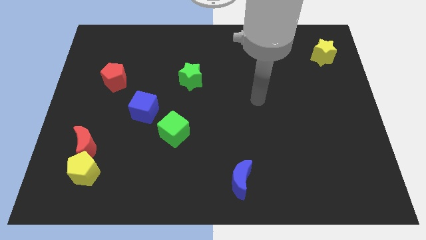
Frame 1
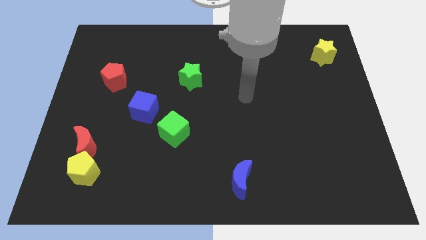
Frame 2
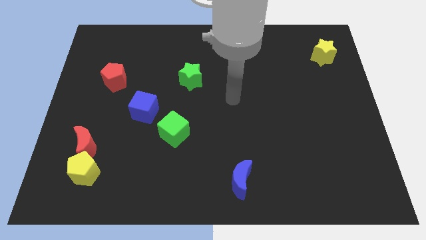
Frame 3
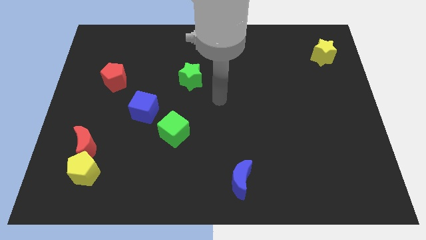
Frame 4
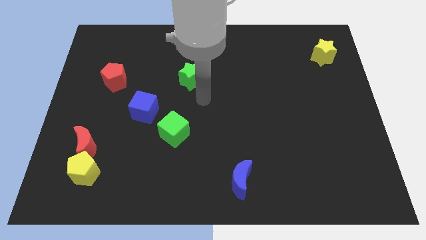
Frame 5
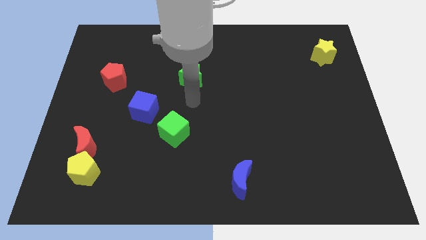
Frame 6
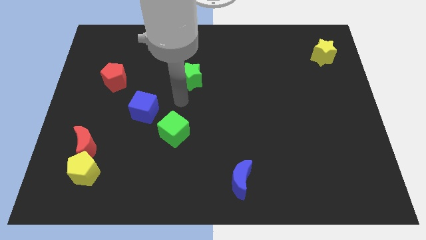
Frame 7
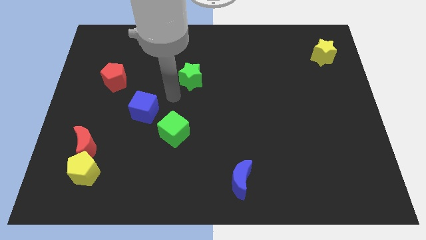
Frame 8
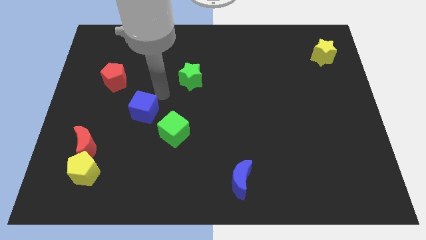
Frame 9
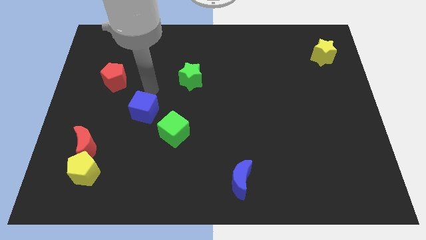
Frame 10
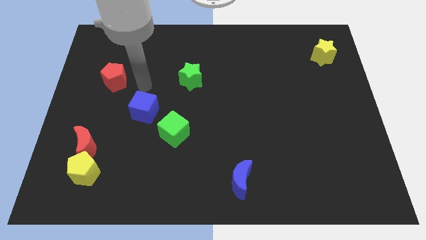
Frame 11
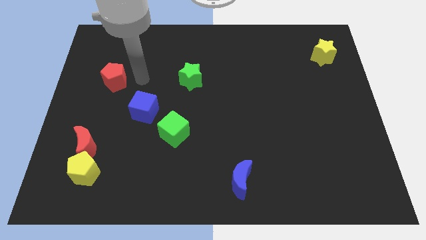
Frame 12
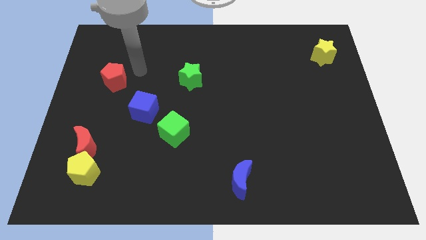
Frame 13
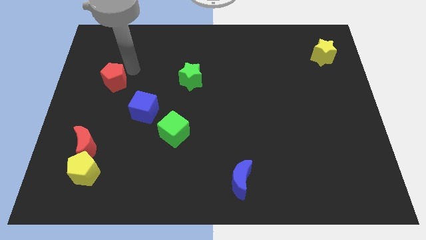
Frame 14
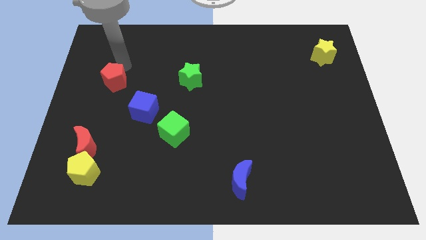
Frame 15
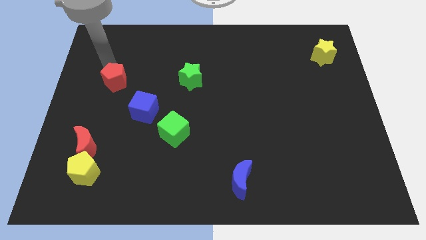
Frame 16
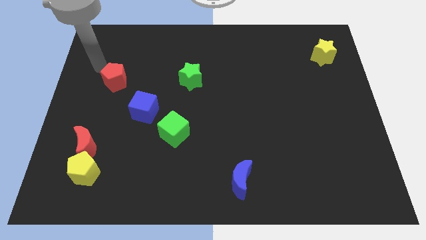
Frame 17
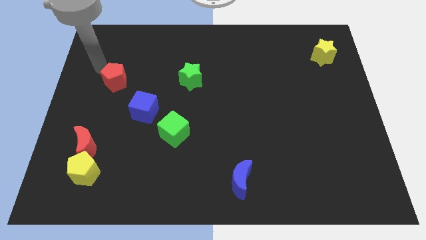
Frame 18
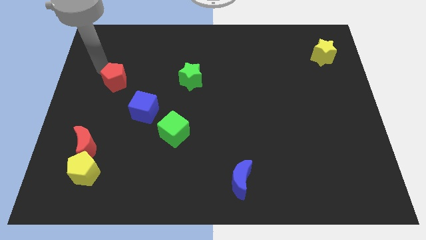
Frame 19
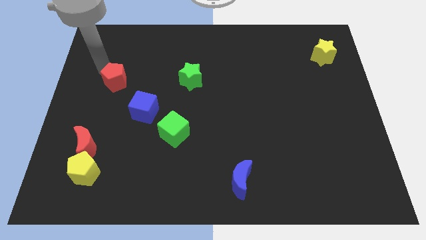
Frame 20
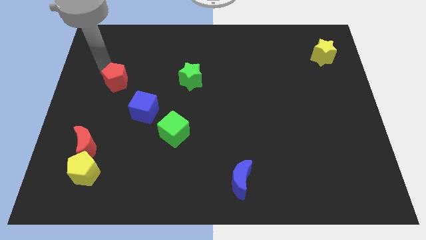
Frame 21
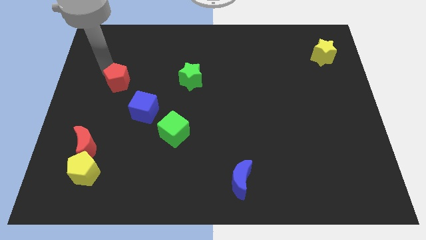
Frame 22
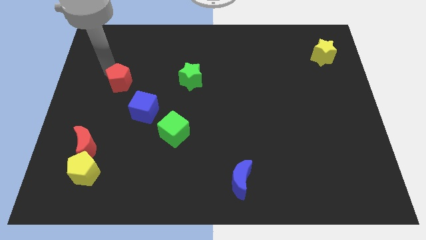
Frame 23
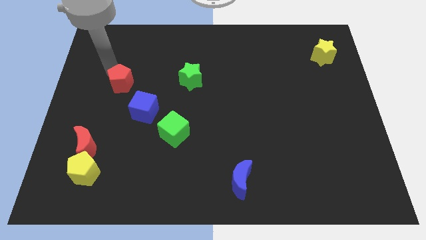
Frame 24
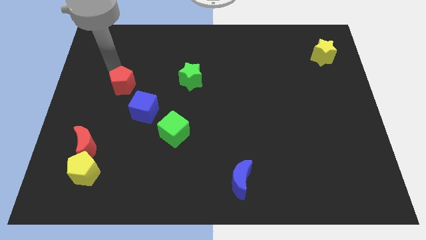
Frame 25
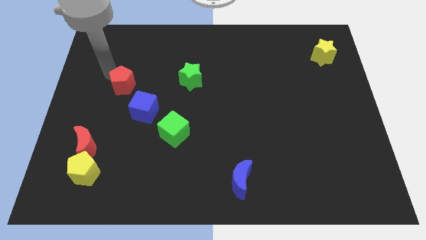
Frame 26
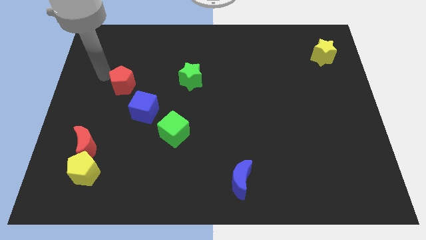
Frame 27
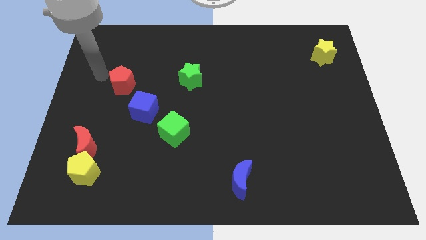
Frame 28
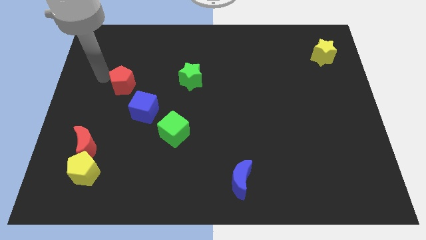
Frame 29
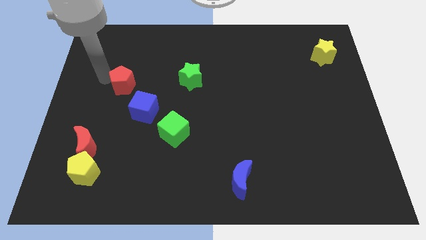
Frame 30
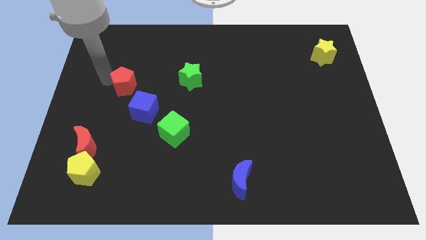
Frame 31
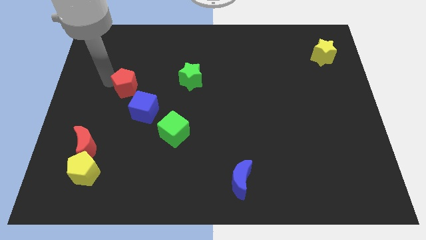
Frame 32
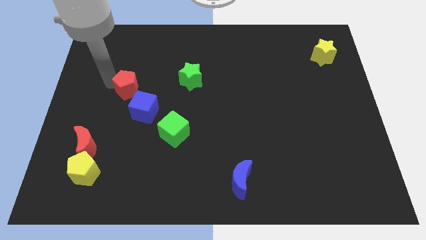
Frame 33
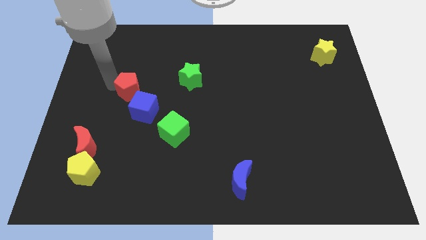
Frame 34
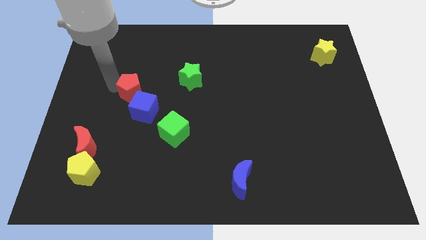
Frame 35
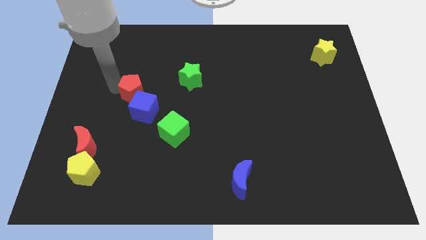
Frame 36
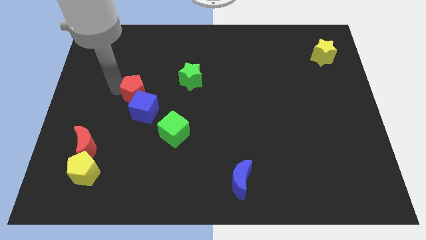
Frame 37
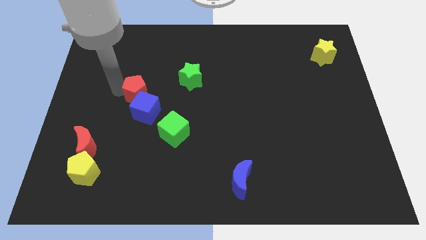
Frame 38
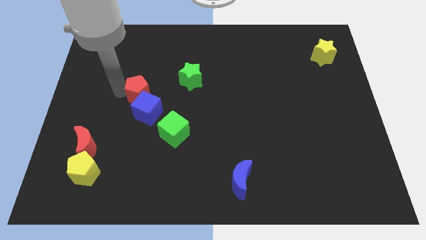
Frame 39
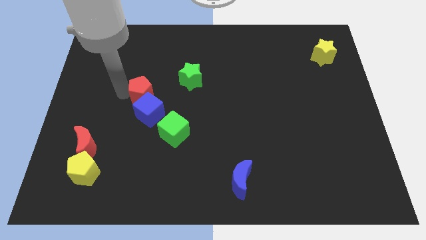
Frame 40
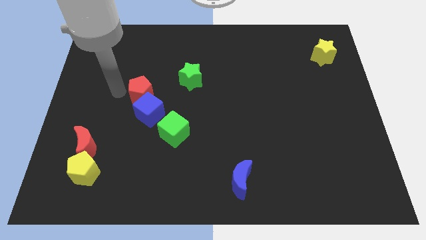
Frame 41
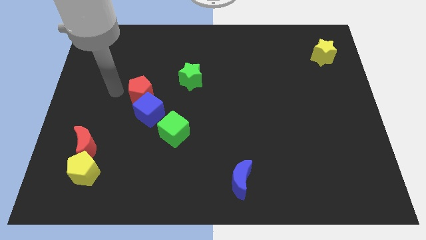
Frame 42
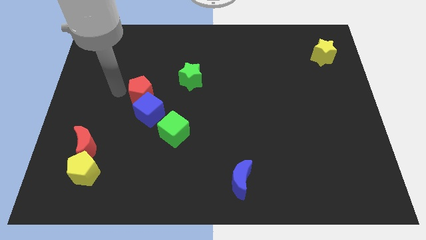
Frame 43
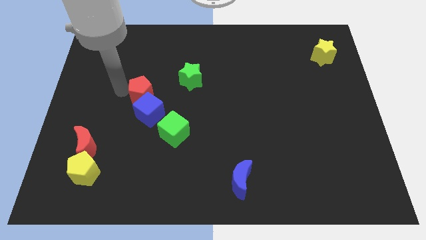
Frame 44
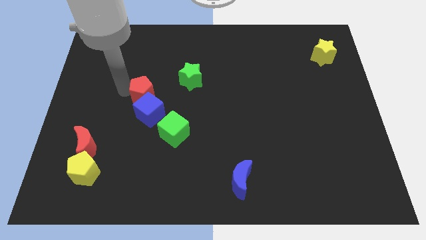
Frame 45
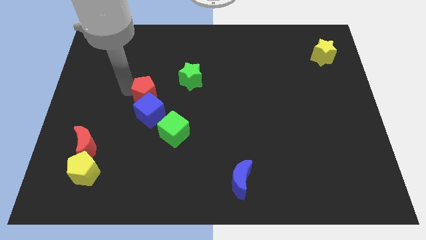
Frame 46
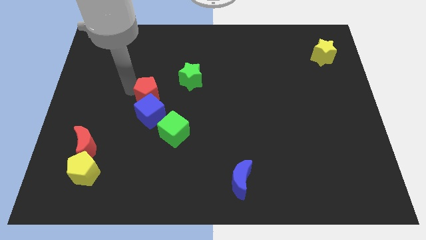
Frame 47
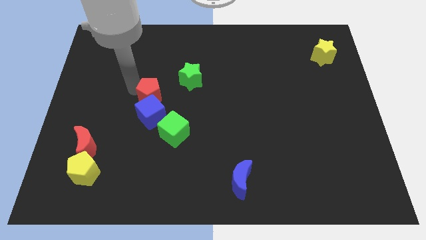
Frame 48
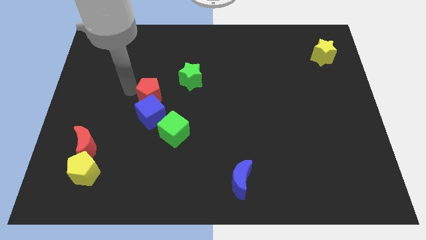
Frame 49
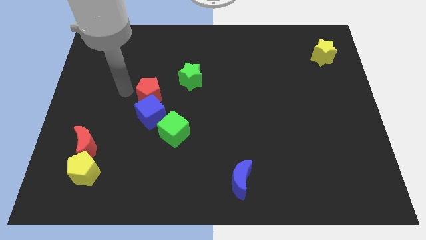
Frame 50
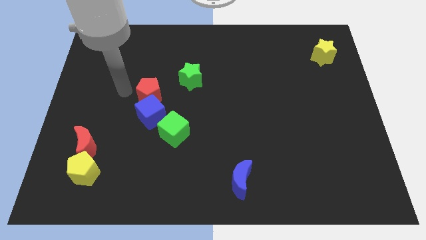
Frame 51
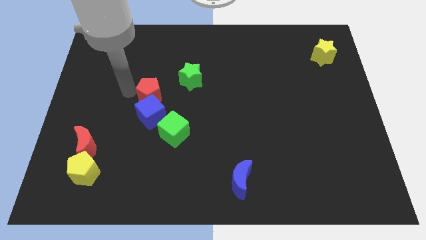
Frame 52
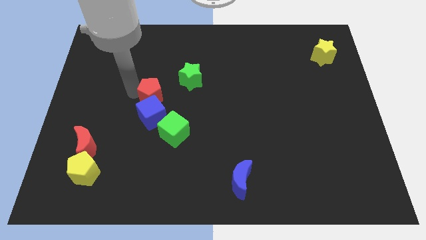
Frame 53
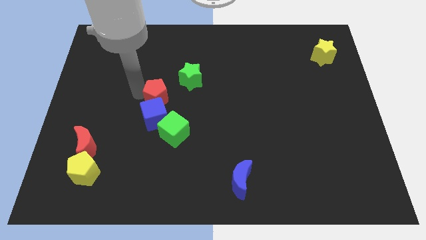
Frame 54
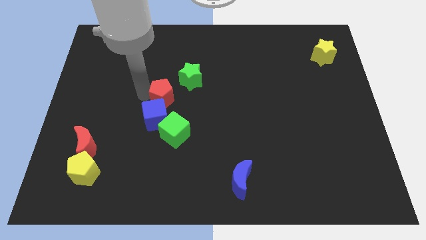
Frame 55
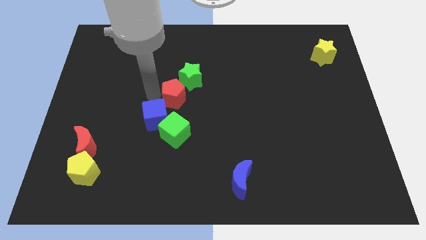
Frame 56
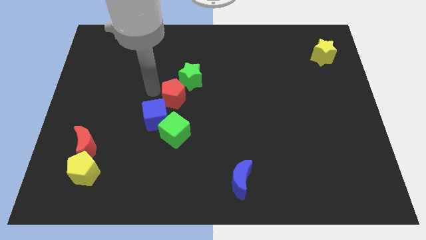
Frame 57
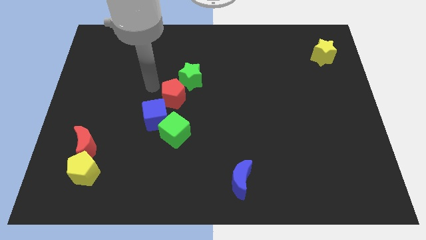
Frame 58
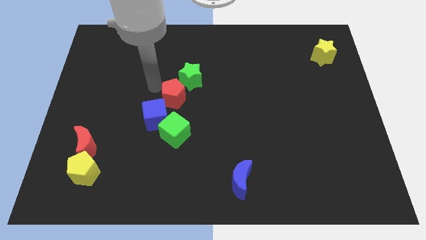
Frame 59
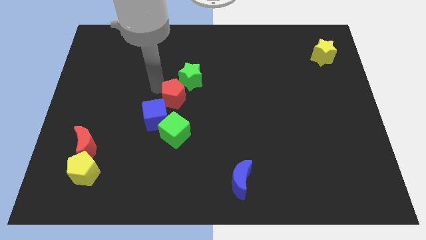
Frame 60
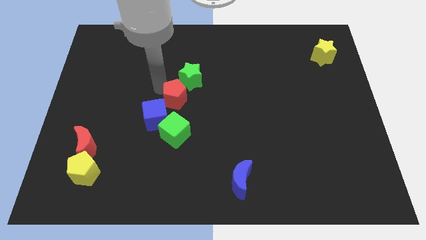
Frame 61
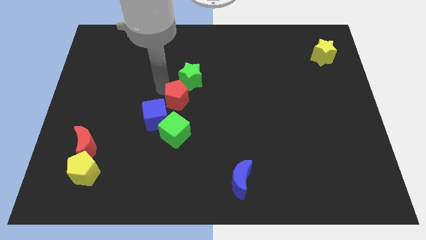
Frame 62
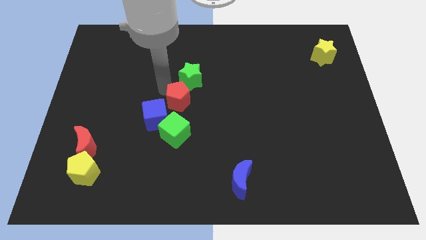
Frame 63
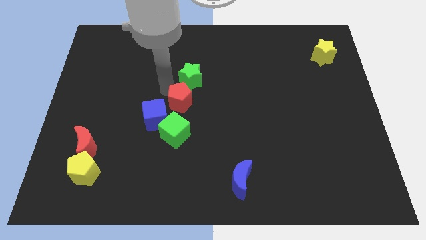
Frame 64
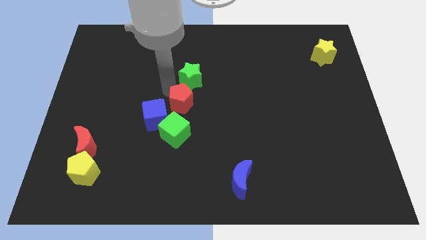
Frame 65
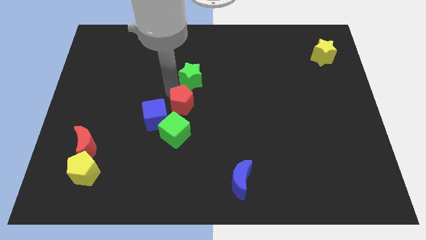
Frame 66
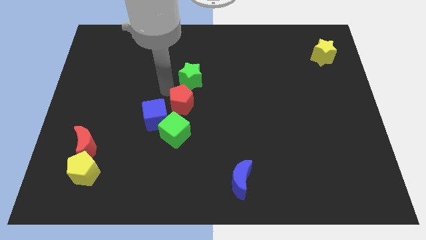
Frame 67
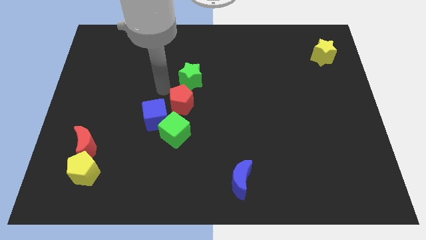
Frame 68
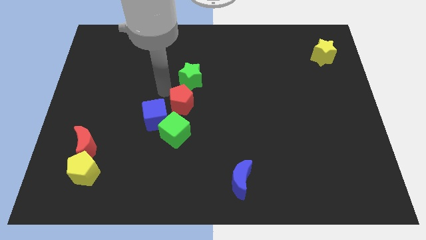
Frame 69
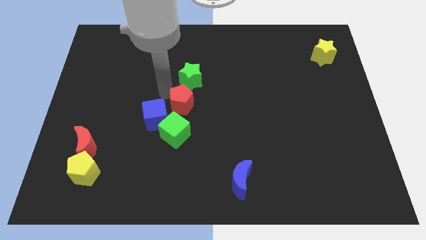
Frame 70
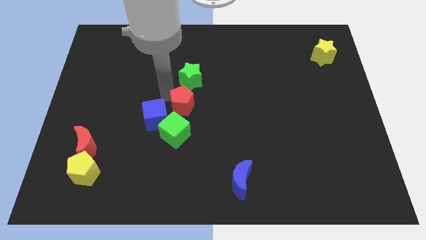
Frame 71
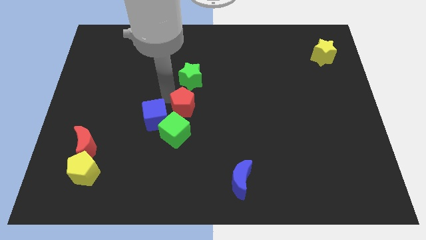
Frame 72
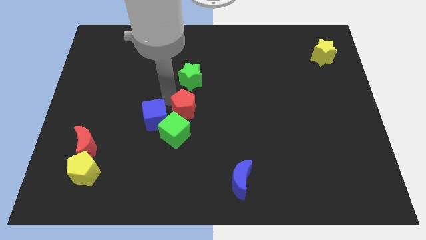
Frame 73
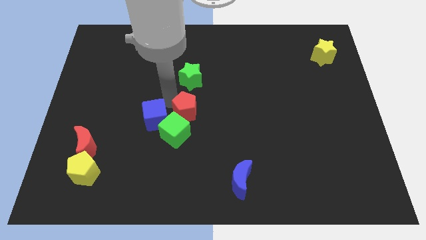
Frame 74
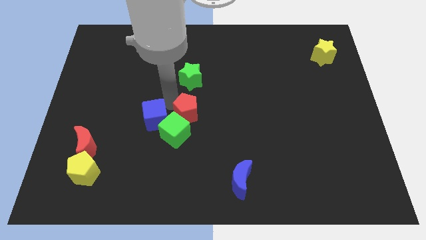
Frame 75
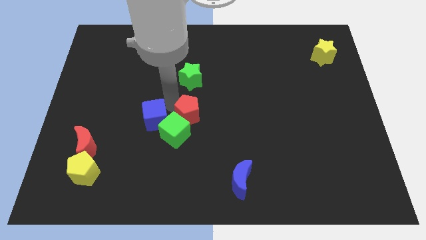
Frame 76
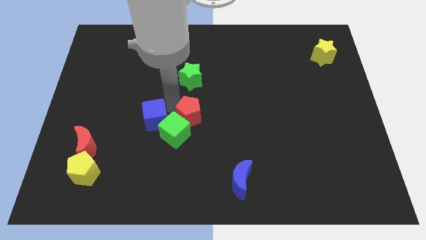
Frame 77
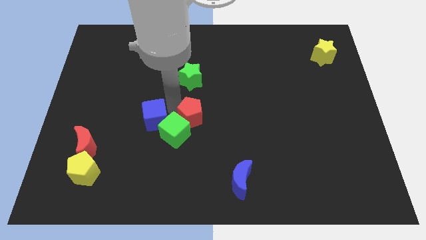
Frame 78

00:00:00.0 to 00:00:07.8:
push the red pentagon to the right of the green cube
